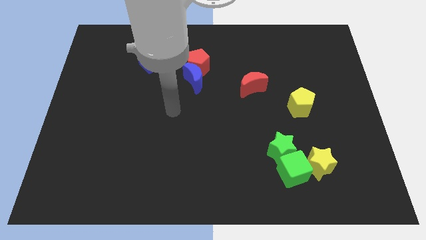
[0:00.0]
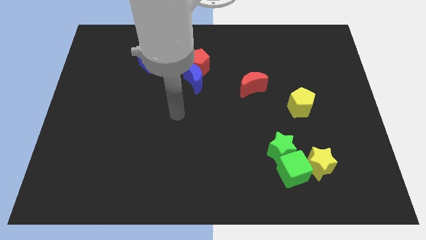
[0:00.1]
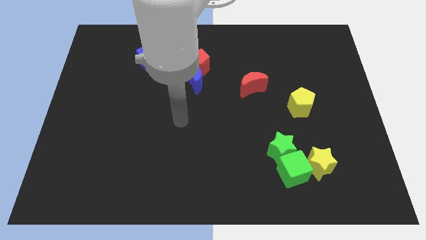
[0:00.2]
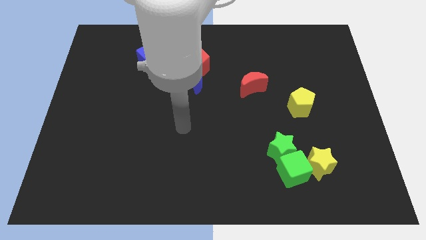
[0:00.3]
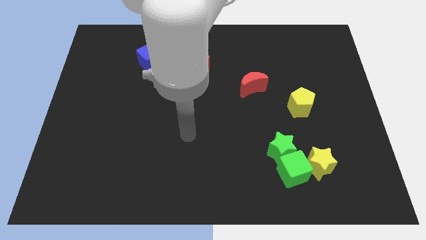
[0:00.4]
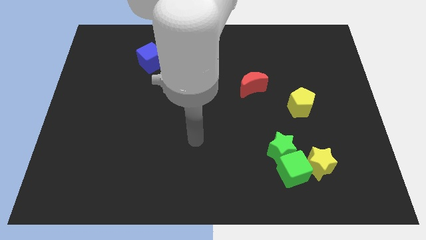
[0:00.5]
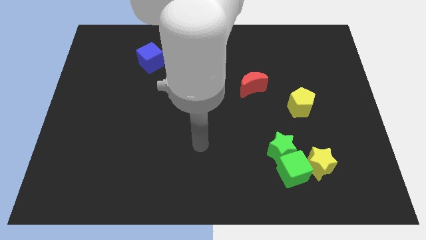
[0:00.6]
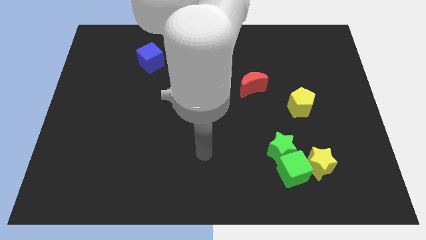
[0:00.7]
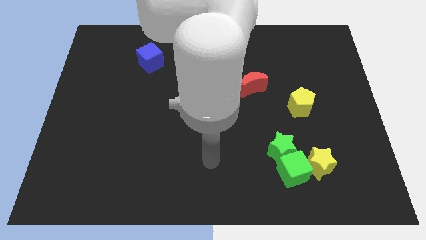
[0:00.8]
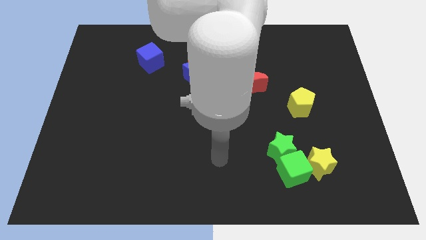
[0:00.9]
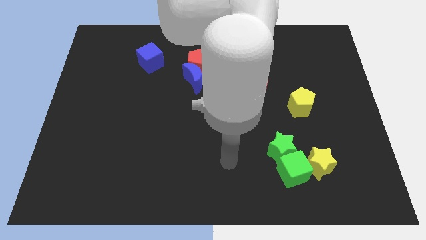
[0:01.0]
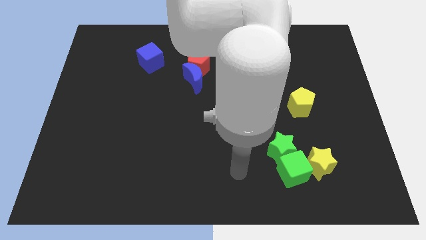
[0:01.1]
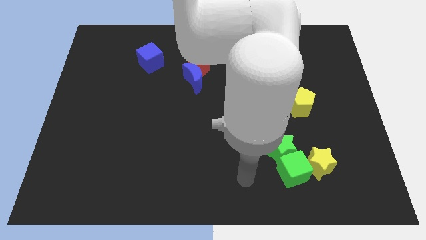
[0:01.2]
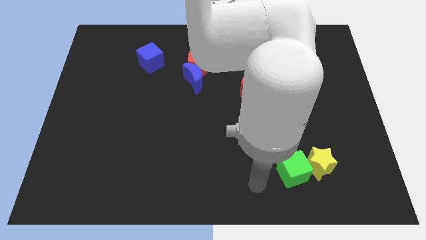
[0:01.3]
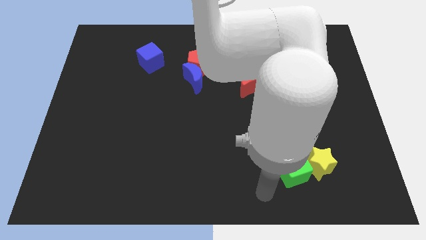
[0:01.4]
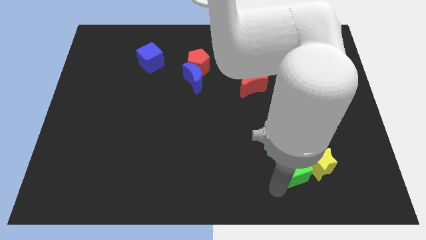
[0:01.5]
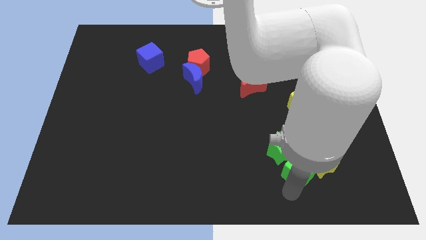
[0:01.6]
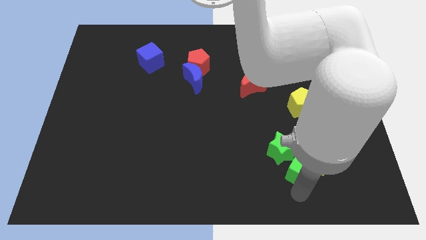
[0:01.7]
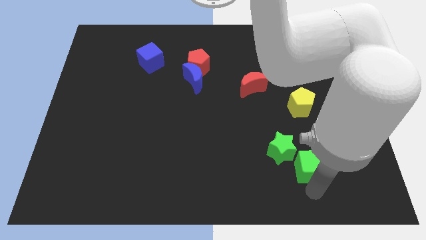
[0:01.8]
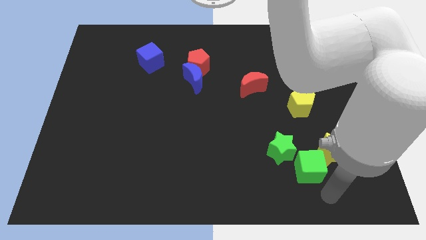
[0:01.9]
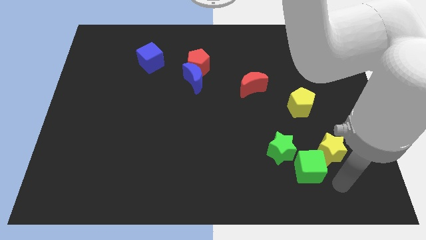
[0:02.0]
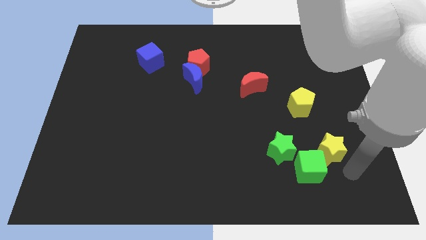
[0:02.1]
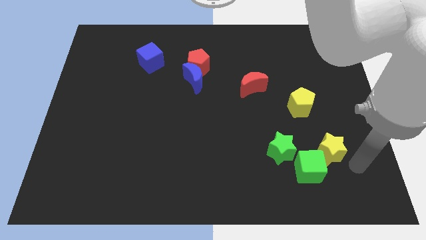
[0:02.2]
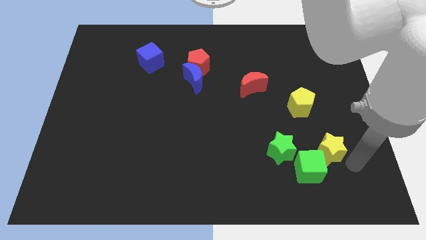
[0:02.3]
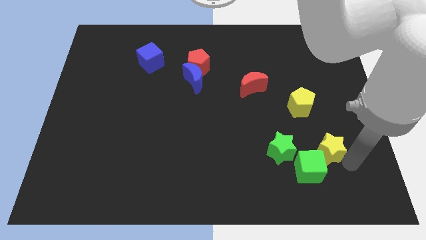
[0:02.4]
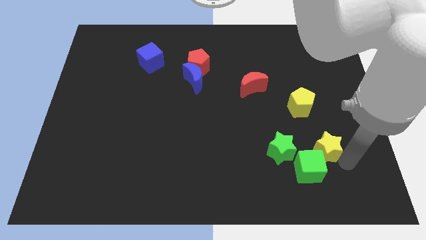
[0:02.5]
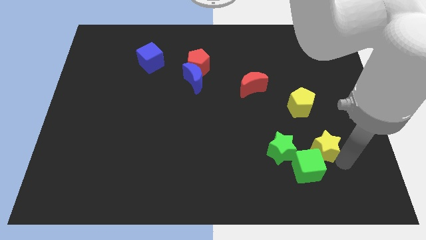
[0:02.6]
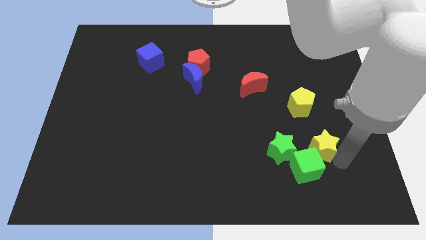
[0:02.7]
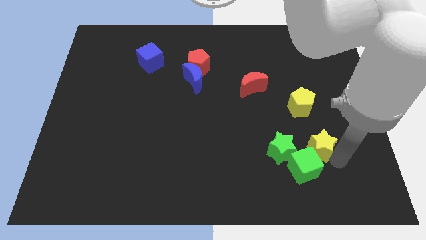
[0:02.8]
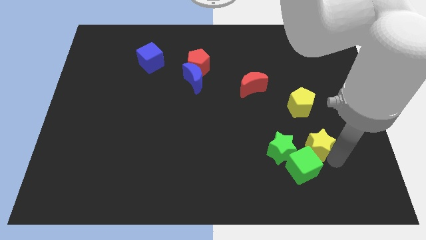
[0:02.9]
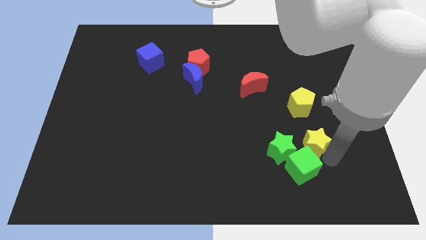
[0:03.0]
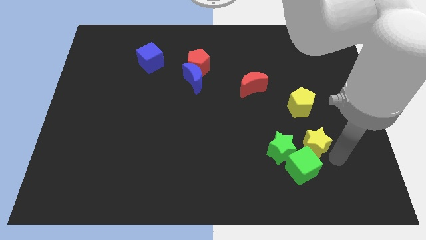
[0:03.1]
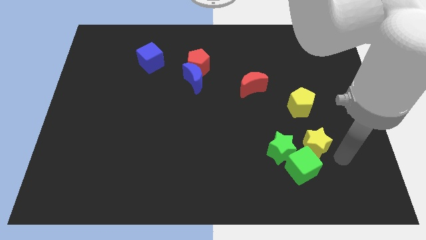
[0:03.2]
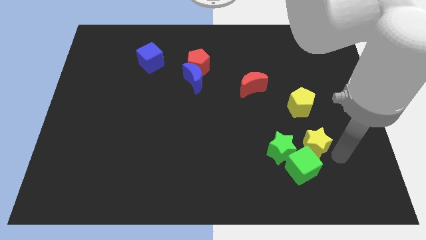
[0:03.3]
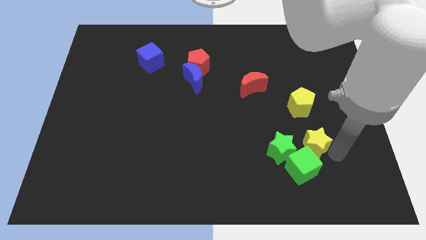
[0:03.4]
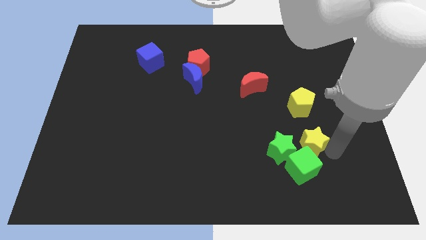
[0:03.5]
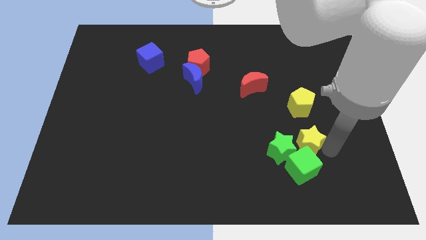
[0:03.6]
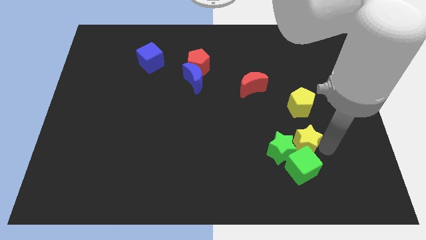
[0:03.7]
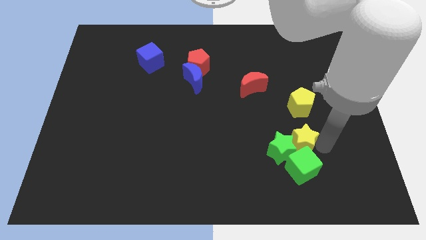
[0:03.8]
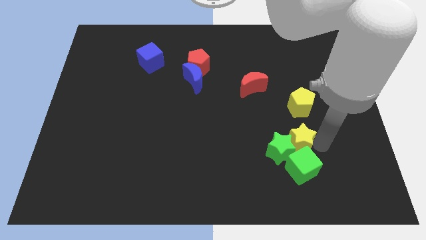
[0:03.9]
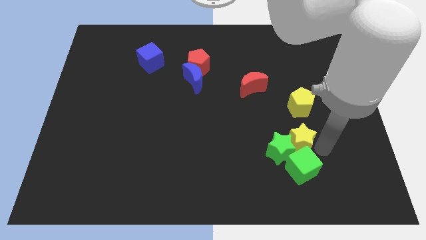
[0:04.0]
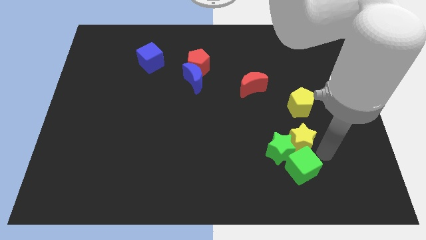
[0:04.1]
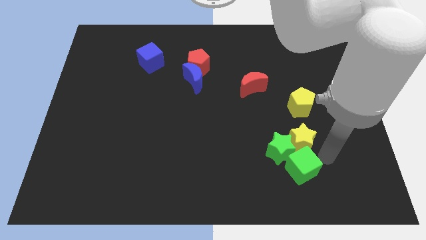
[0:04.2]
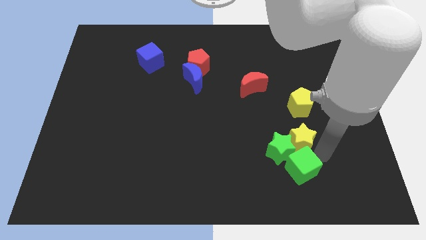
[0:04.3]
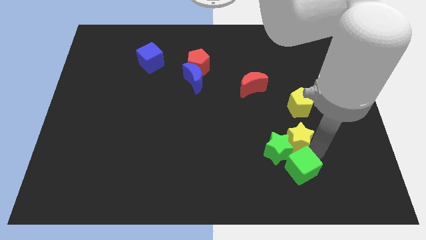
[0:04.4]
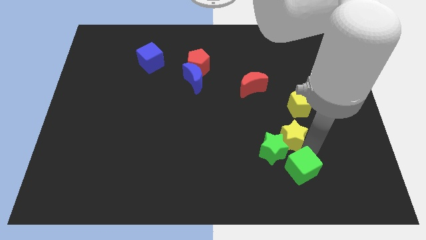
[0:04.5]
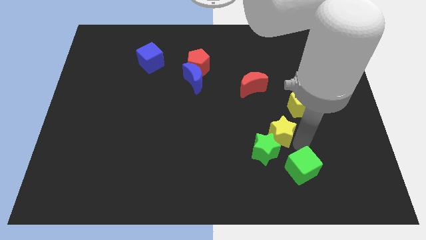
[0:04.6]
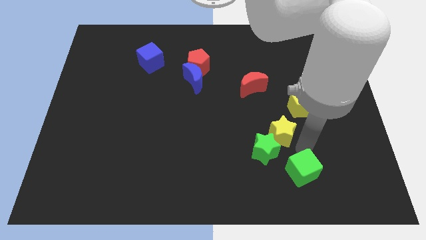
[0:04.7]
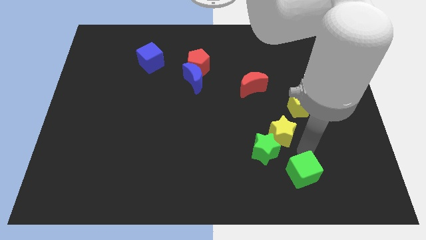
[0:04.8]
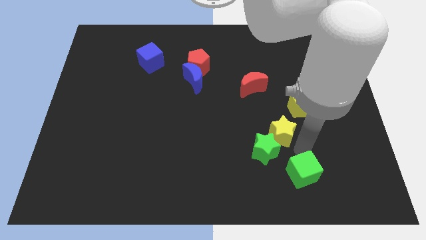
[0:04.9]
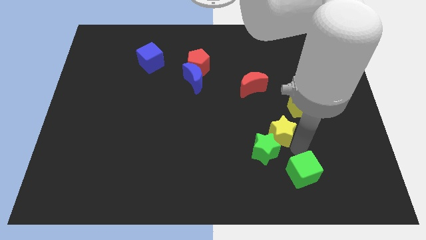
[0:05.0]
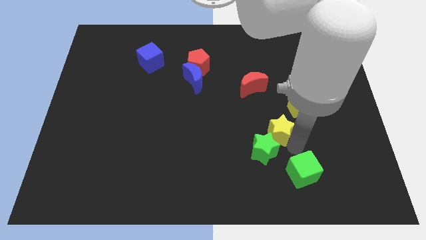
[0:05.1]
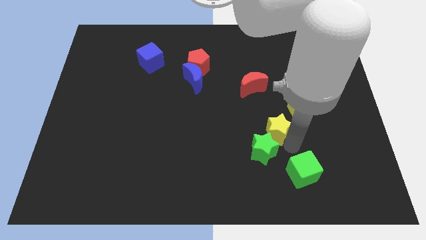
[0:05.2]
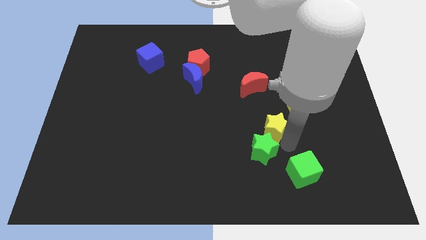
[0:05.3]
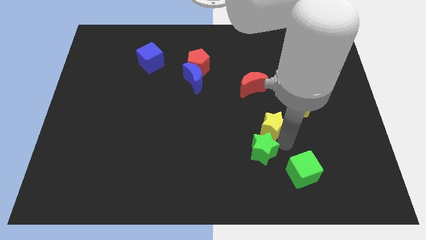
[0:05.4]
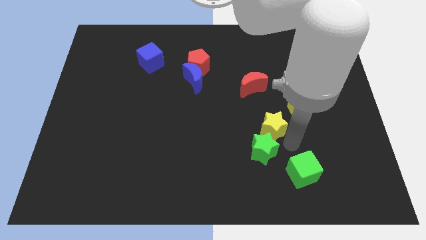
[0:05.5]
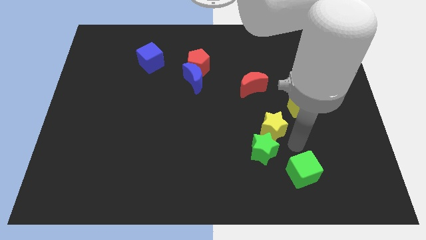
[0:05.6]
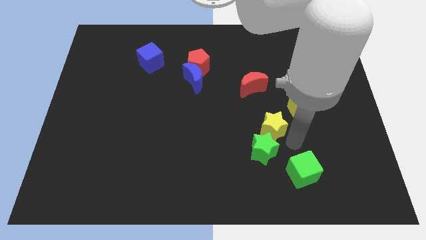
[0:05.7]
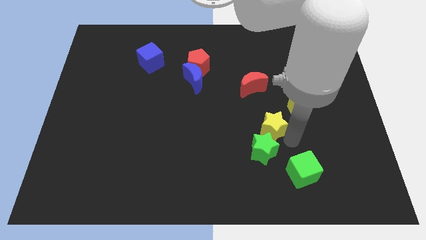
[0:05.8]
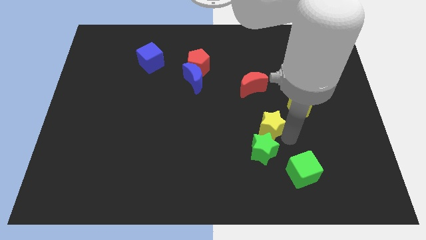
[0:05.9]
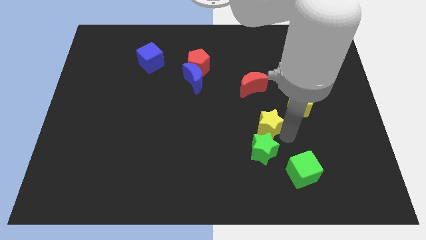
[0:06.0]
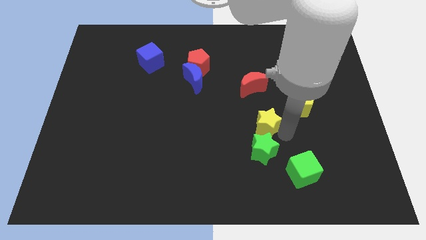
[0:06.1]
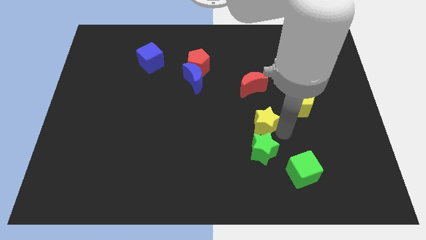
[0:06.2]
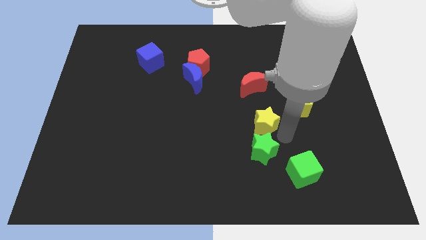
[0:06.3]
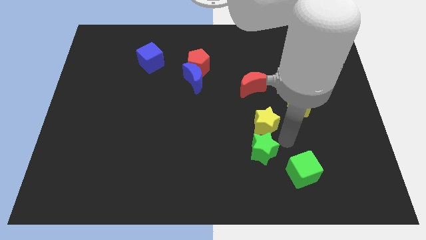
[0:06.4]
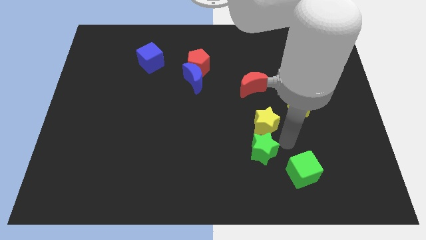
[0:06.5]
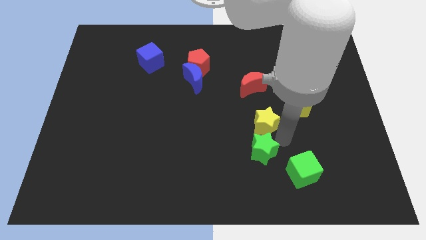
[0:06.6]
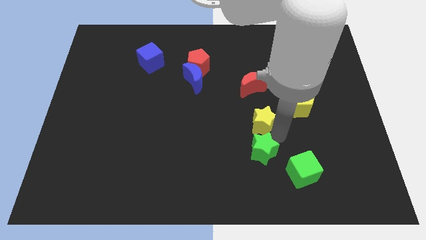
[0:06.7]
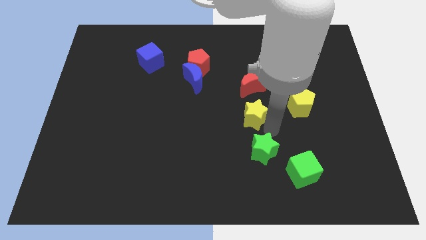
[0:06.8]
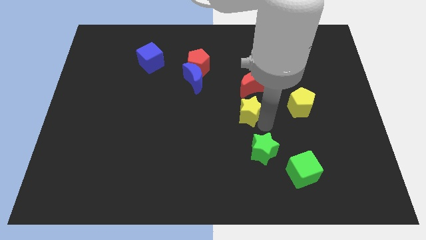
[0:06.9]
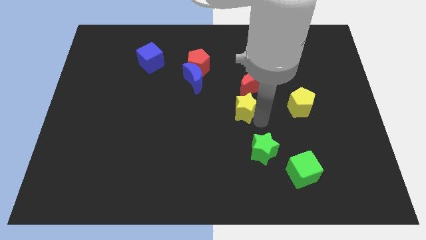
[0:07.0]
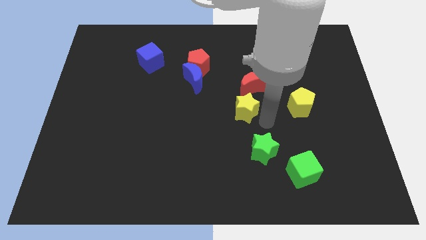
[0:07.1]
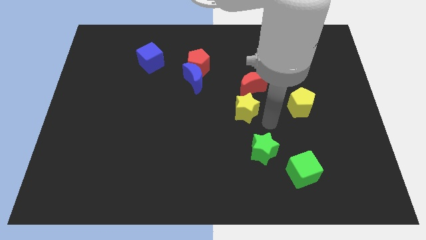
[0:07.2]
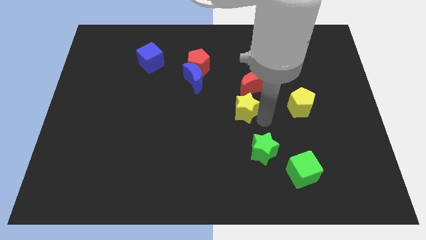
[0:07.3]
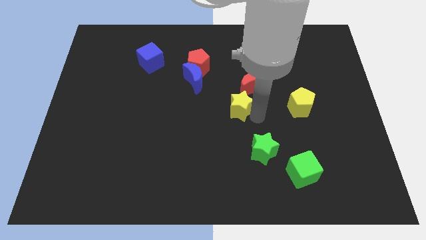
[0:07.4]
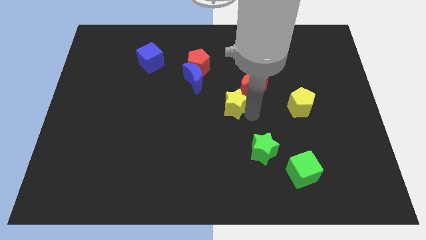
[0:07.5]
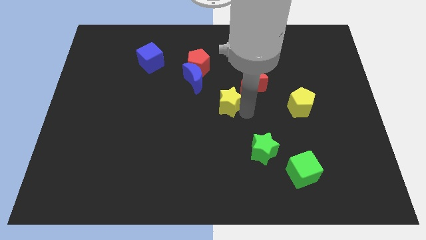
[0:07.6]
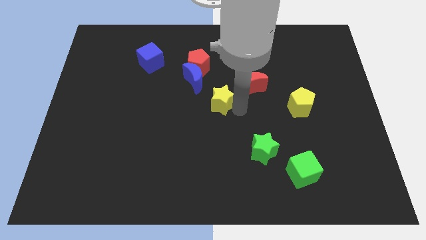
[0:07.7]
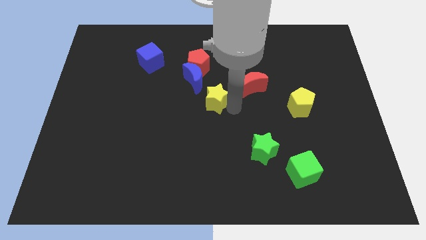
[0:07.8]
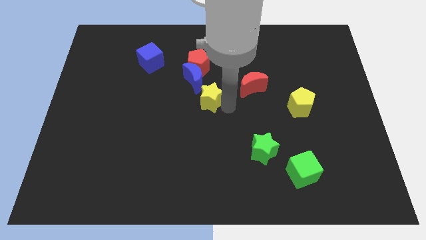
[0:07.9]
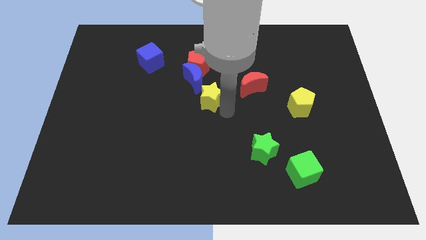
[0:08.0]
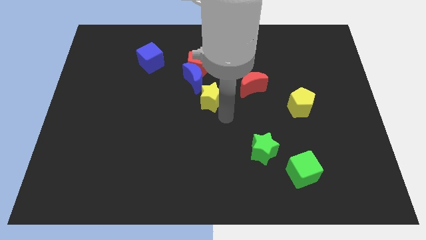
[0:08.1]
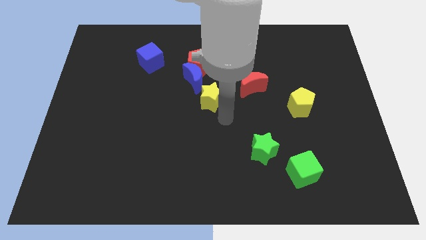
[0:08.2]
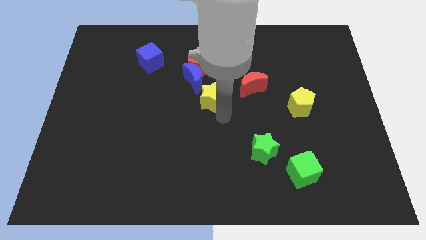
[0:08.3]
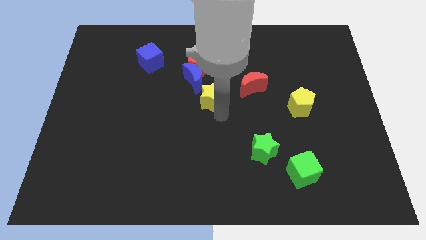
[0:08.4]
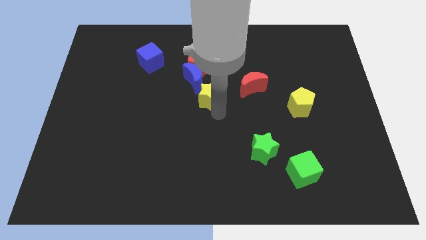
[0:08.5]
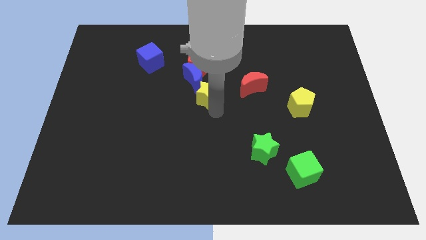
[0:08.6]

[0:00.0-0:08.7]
move the yellow star close to the blue moon
